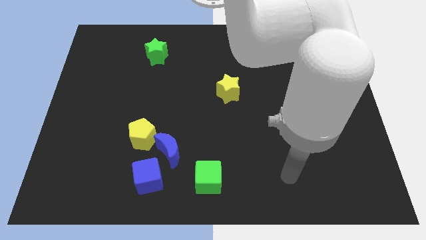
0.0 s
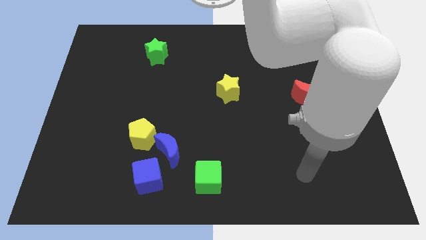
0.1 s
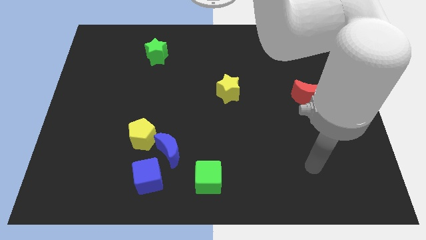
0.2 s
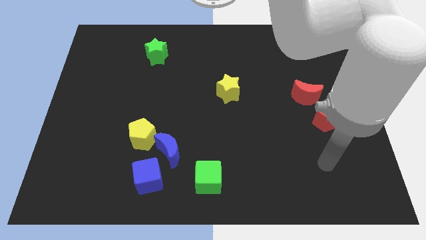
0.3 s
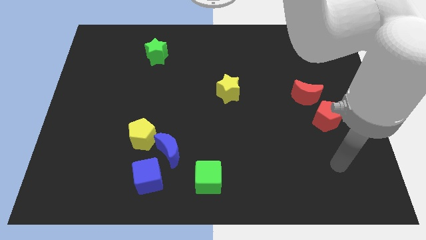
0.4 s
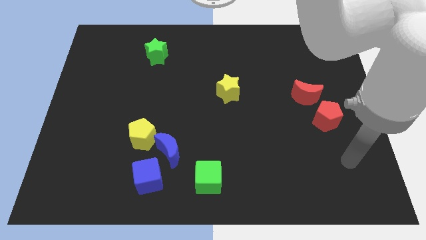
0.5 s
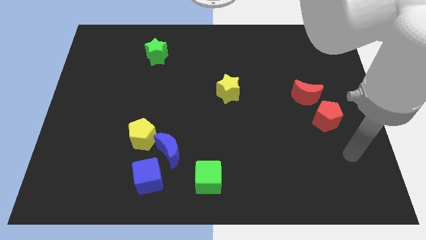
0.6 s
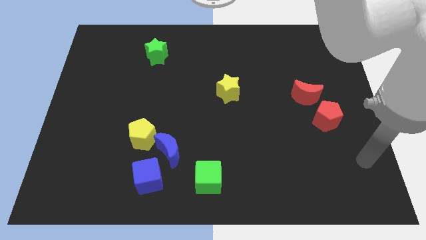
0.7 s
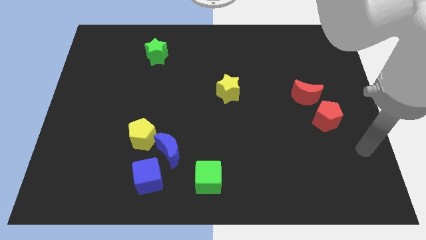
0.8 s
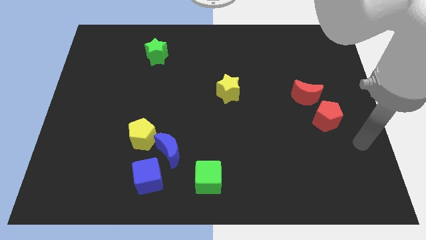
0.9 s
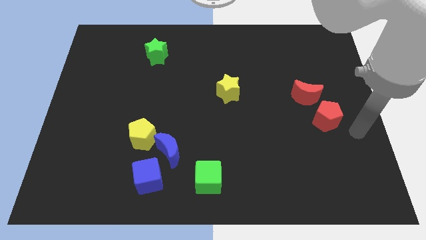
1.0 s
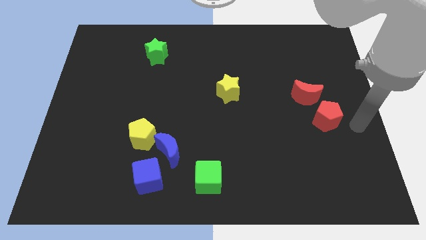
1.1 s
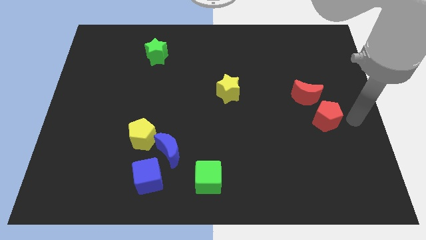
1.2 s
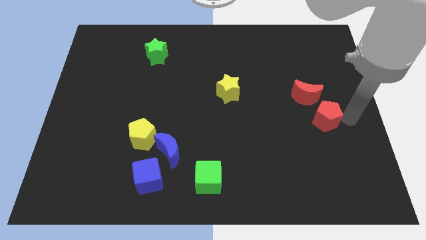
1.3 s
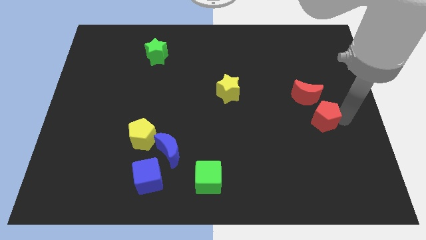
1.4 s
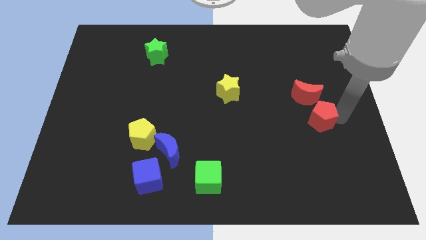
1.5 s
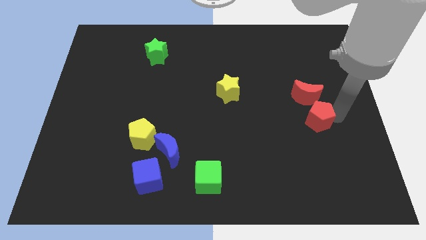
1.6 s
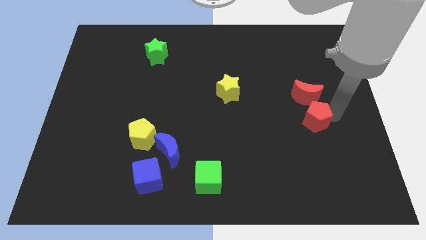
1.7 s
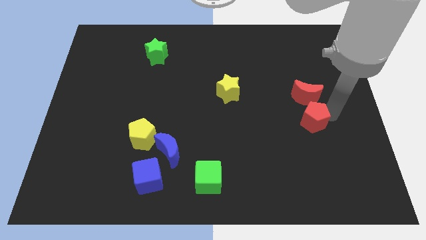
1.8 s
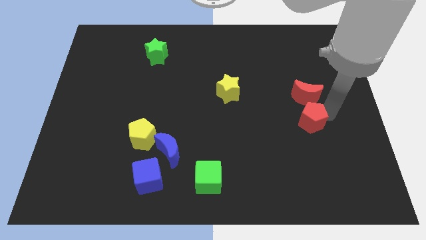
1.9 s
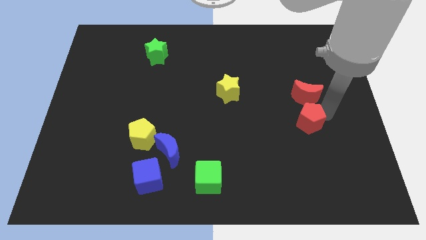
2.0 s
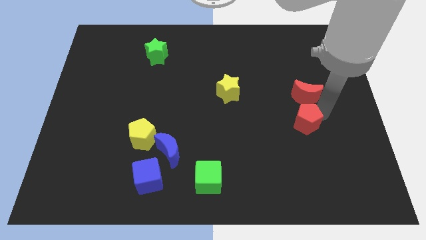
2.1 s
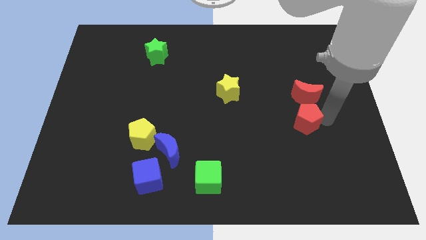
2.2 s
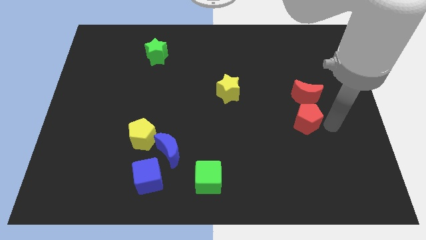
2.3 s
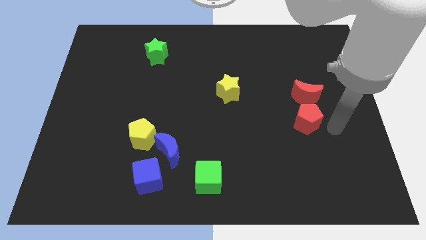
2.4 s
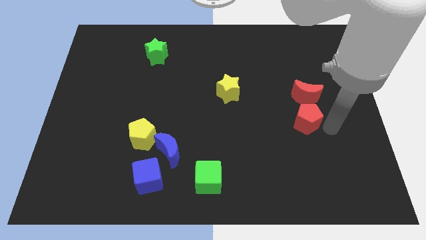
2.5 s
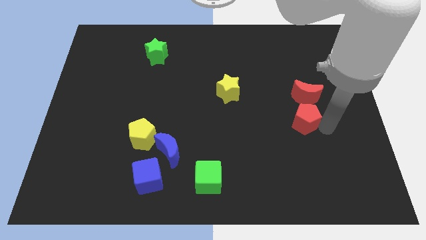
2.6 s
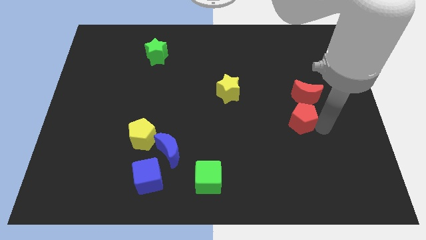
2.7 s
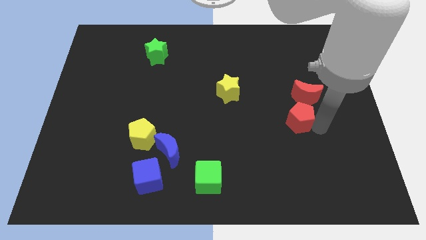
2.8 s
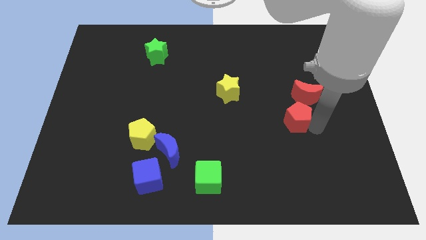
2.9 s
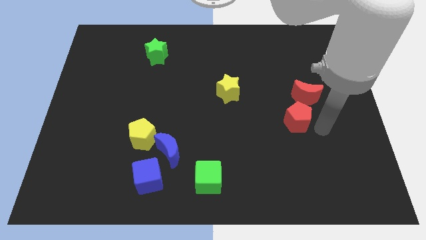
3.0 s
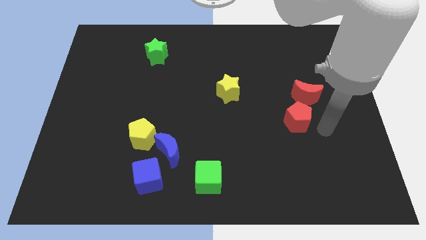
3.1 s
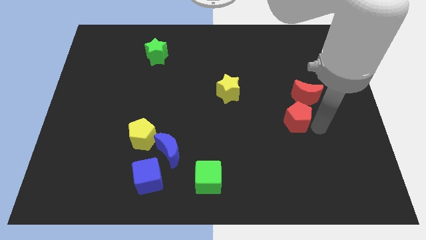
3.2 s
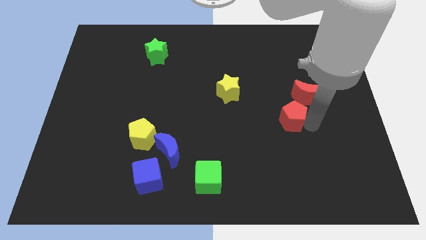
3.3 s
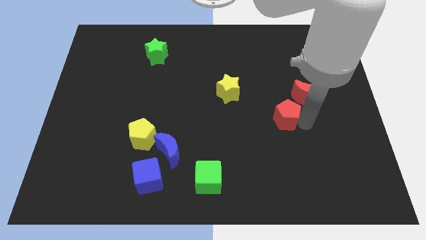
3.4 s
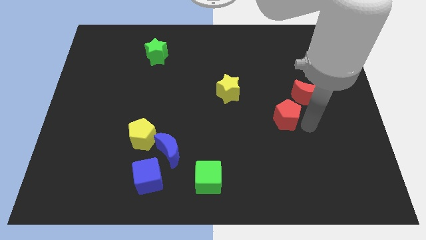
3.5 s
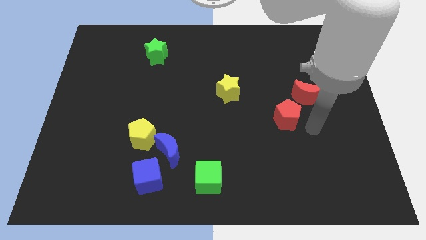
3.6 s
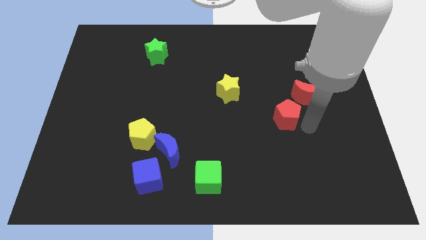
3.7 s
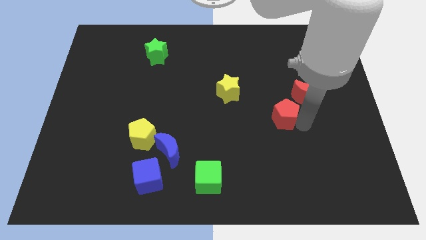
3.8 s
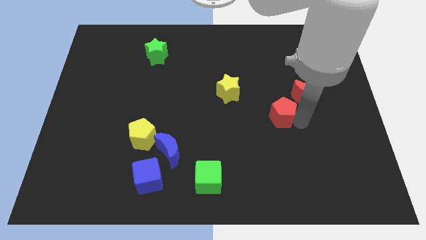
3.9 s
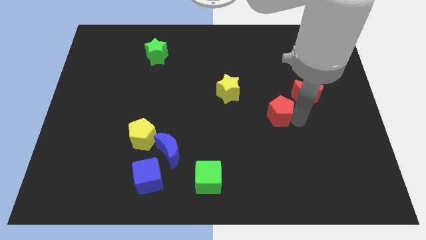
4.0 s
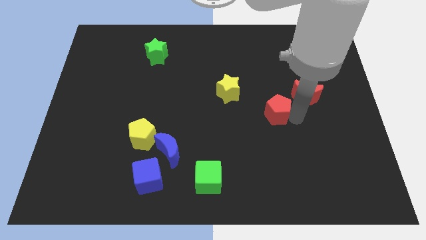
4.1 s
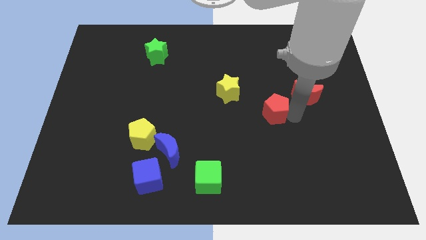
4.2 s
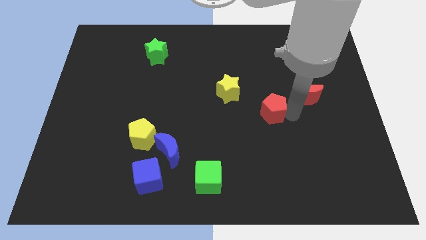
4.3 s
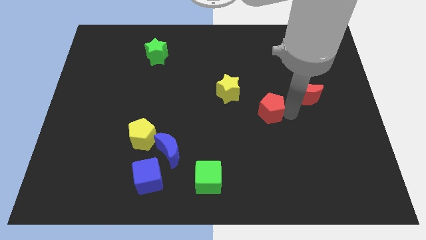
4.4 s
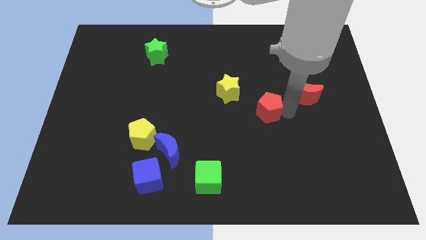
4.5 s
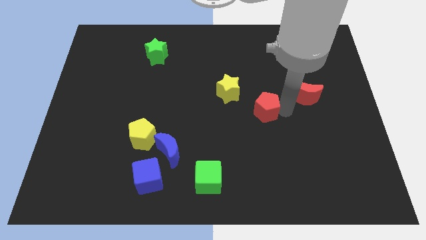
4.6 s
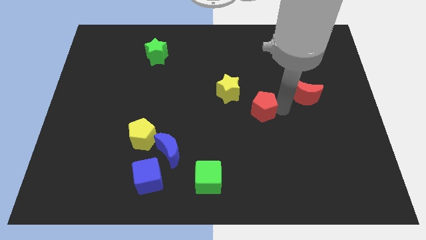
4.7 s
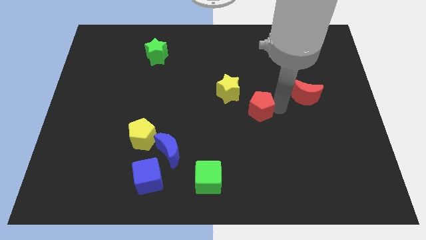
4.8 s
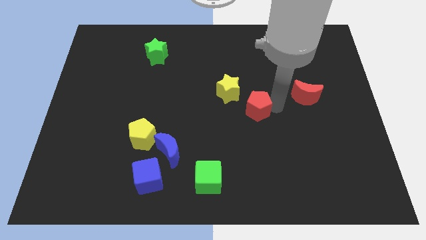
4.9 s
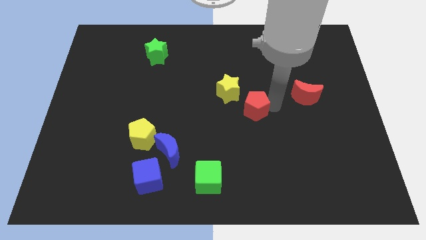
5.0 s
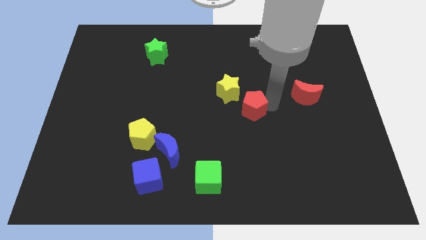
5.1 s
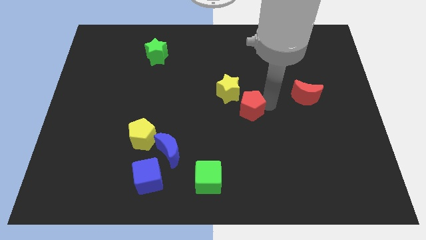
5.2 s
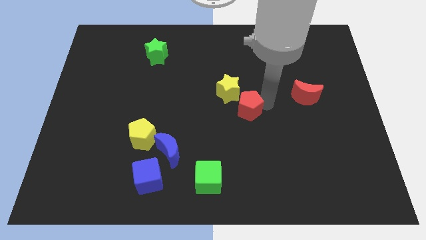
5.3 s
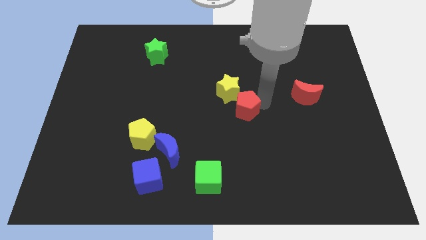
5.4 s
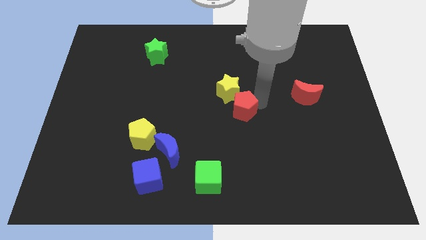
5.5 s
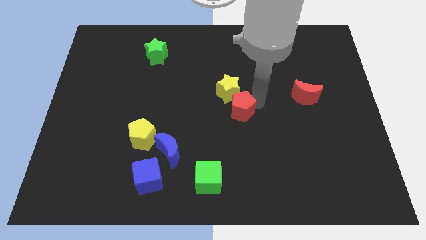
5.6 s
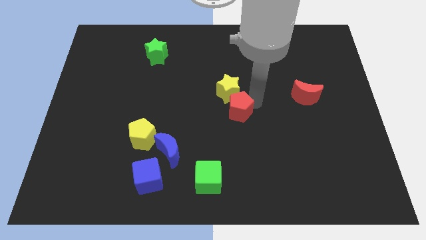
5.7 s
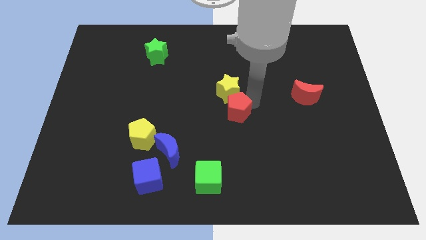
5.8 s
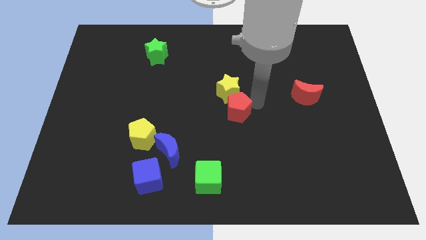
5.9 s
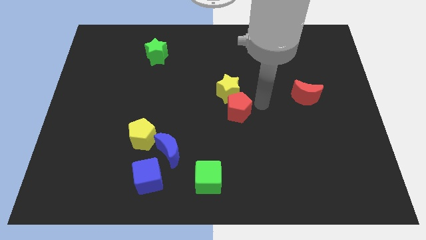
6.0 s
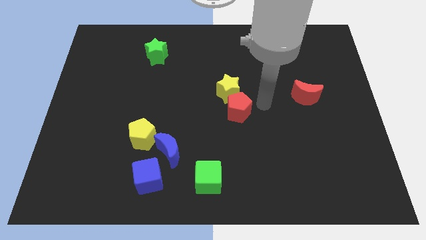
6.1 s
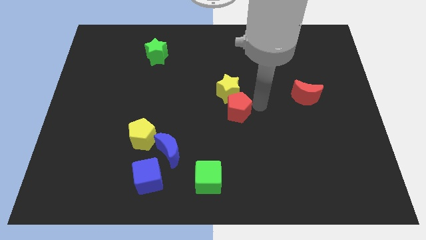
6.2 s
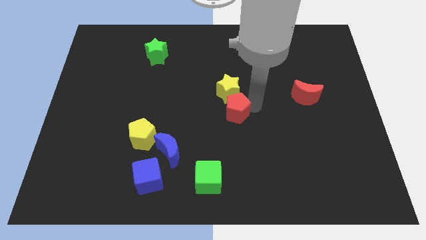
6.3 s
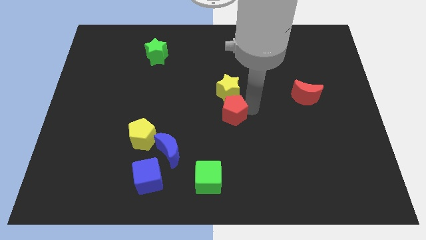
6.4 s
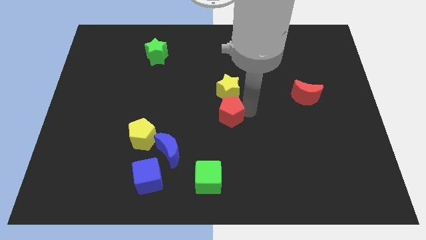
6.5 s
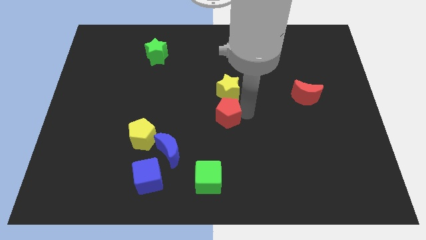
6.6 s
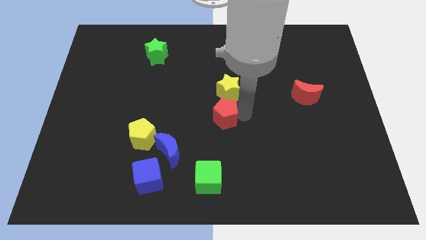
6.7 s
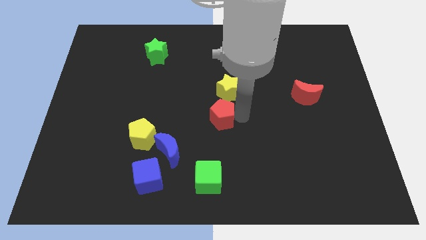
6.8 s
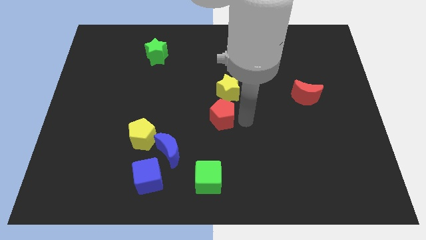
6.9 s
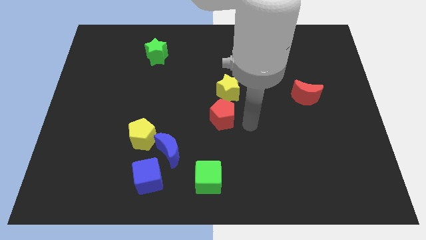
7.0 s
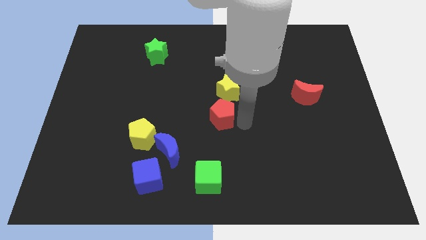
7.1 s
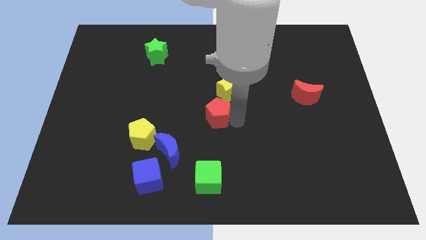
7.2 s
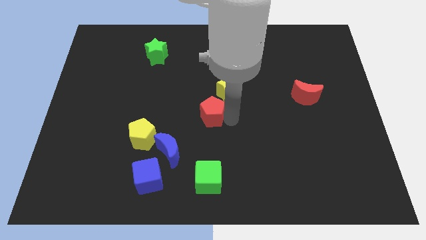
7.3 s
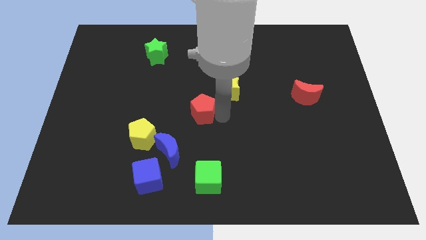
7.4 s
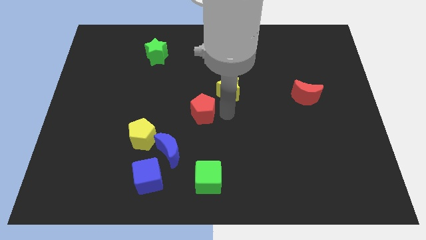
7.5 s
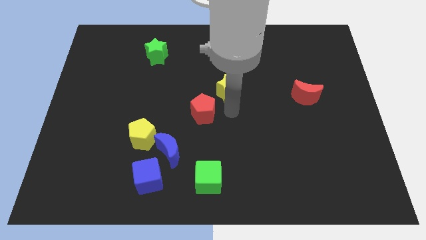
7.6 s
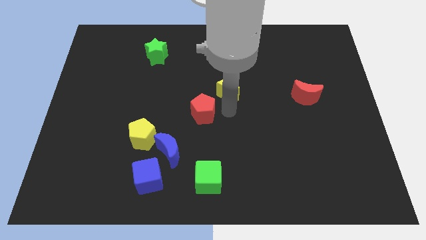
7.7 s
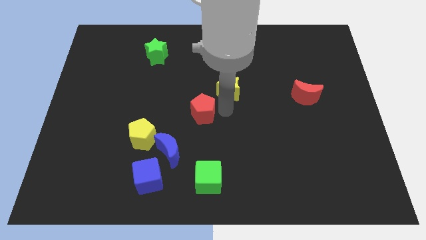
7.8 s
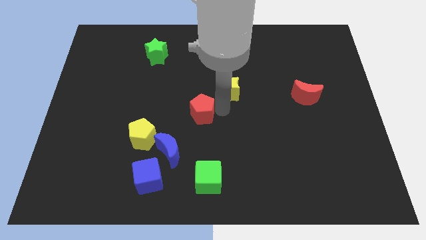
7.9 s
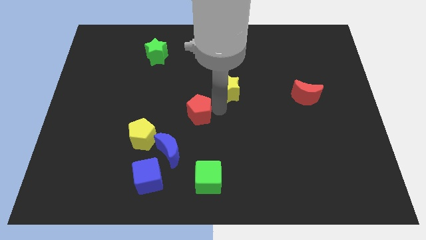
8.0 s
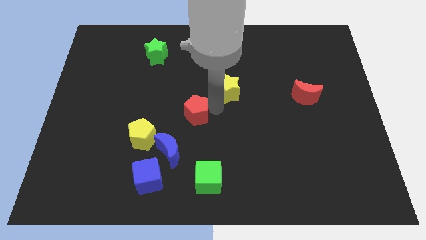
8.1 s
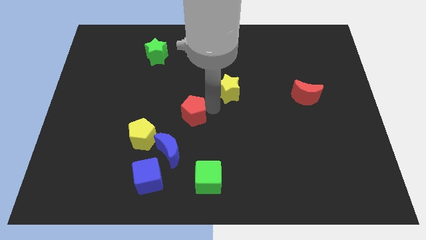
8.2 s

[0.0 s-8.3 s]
put the red pentagon to the top side of the blue moon
